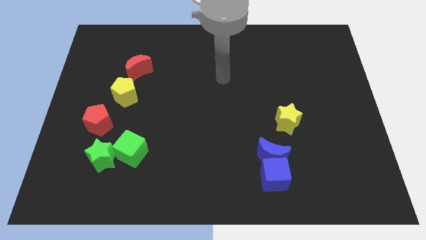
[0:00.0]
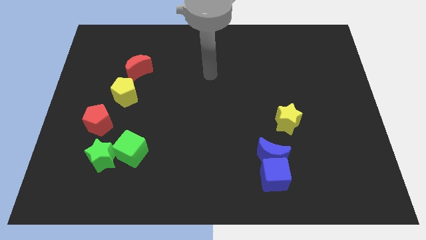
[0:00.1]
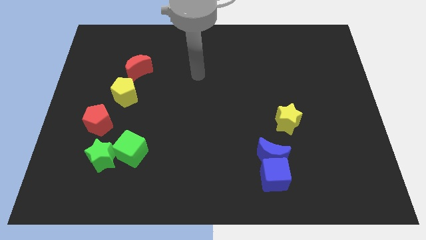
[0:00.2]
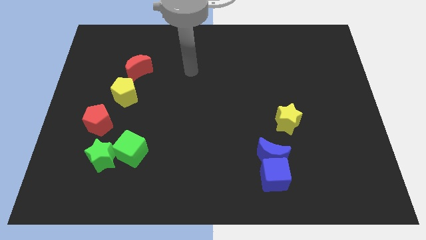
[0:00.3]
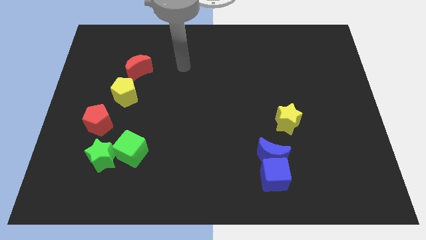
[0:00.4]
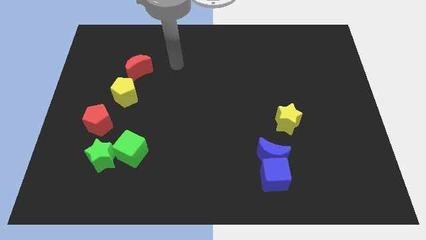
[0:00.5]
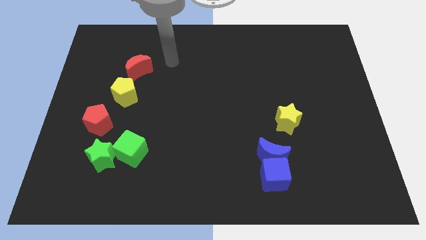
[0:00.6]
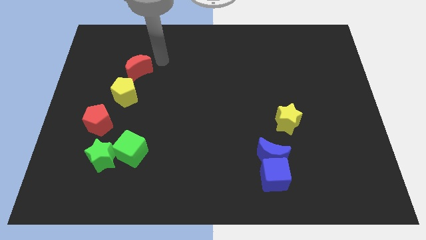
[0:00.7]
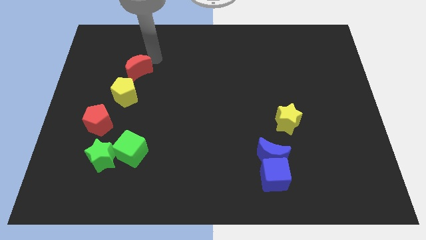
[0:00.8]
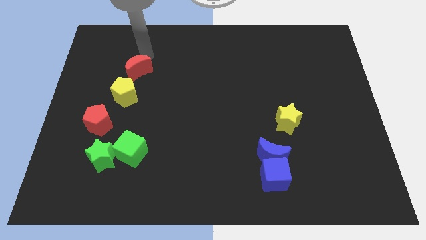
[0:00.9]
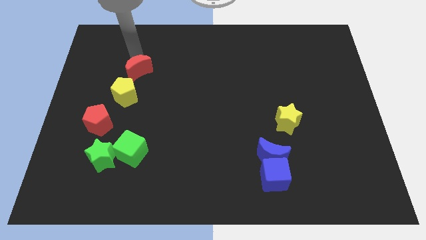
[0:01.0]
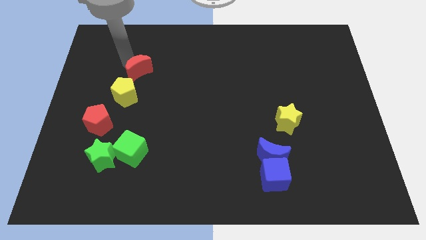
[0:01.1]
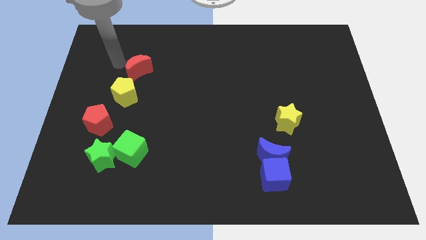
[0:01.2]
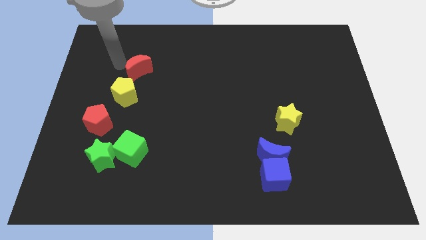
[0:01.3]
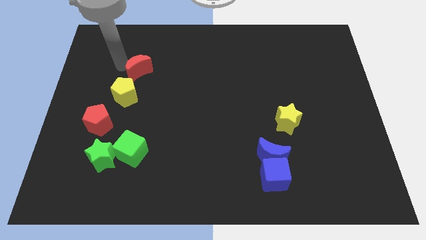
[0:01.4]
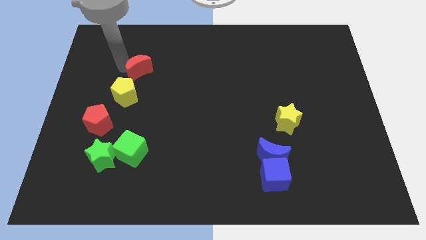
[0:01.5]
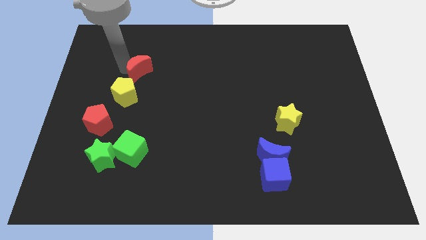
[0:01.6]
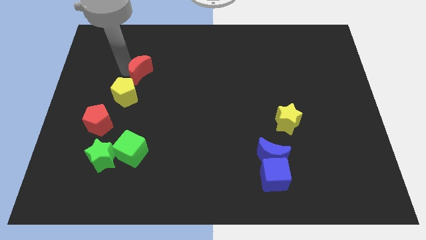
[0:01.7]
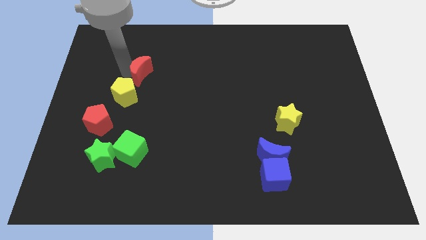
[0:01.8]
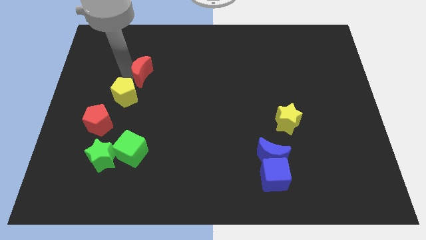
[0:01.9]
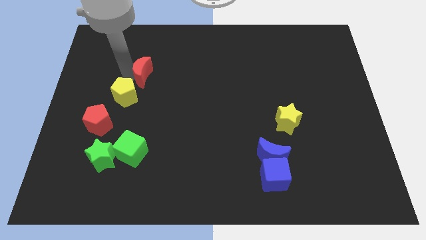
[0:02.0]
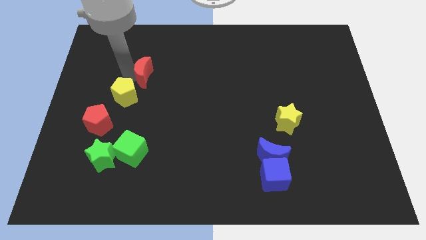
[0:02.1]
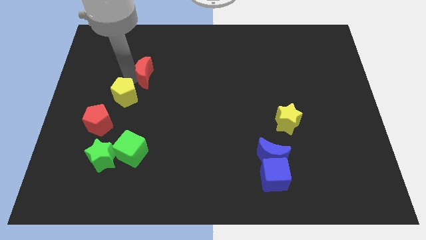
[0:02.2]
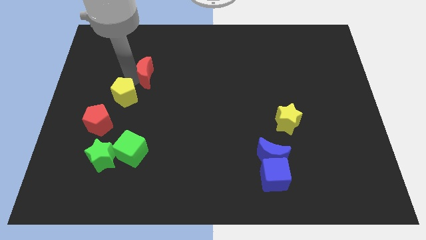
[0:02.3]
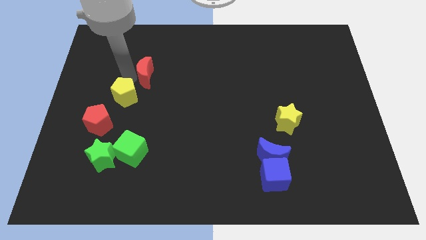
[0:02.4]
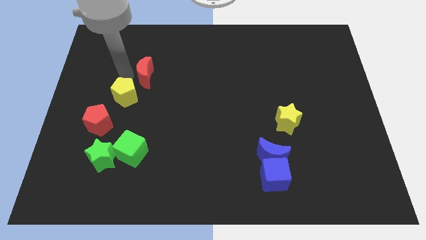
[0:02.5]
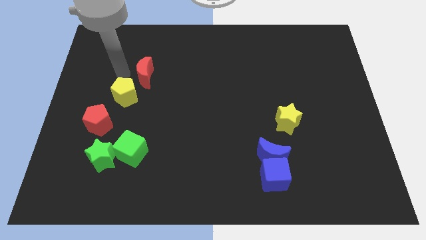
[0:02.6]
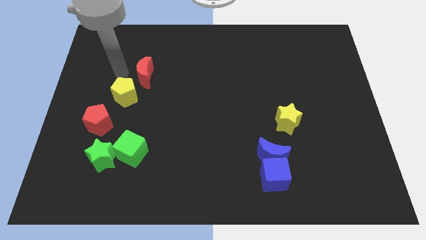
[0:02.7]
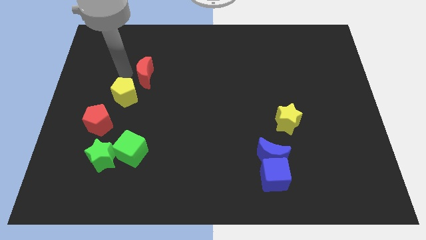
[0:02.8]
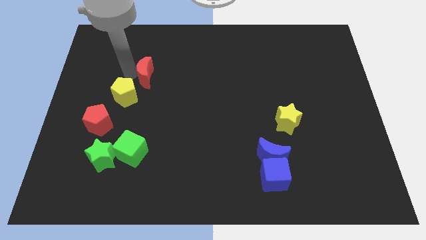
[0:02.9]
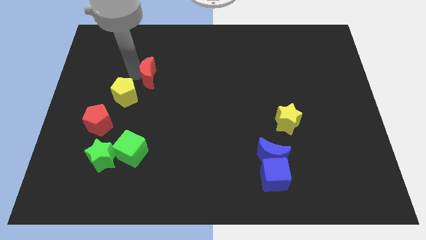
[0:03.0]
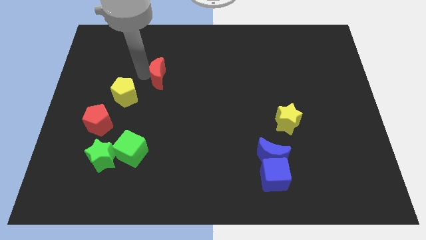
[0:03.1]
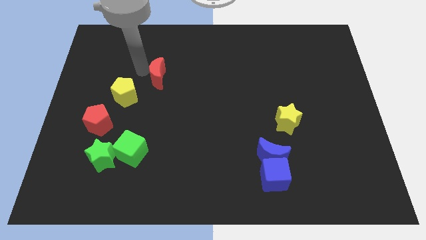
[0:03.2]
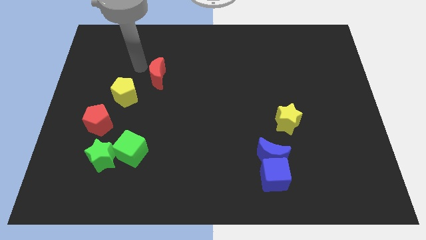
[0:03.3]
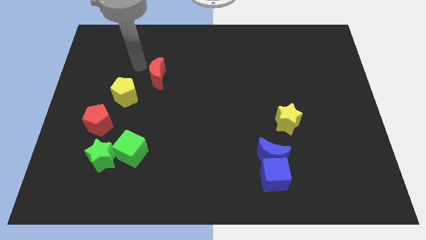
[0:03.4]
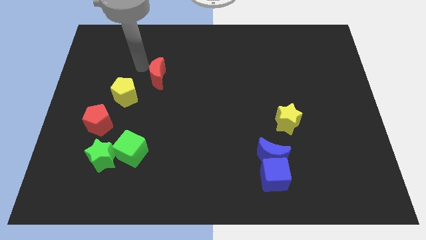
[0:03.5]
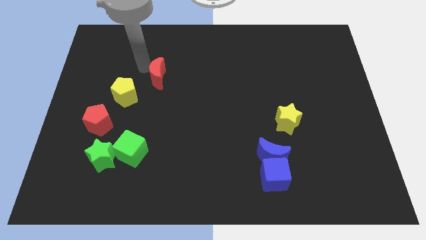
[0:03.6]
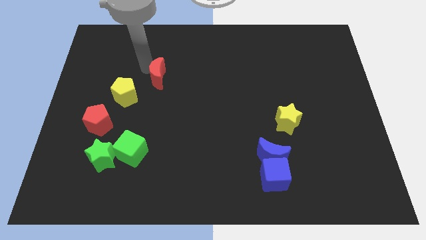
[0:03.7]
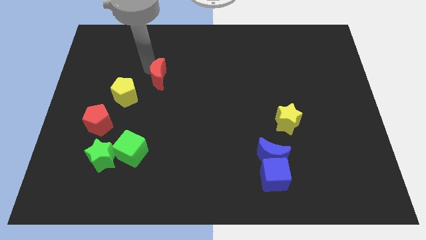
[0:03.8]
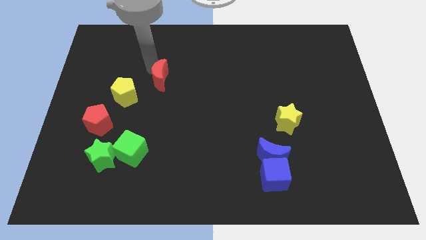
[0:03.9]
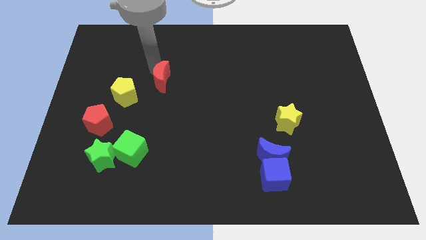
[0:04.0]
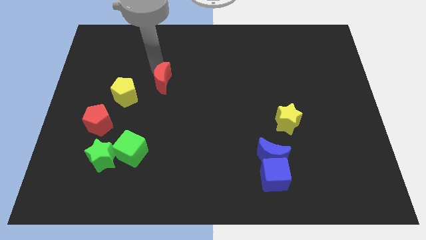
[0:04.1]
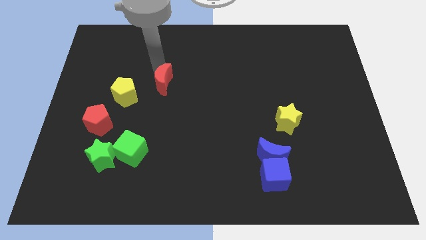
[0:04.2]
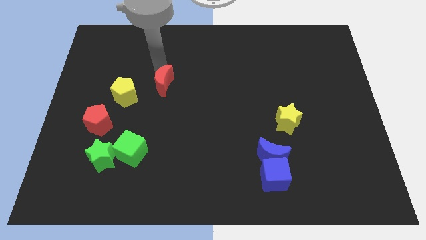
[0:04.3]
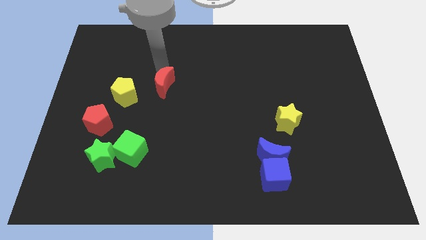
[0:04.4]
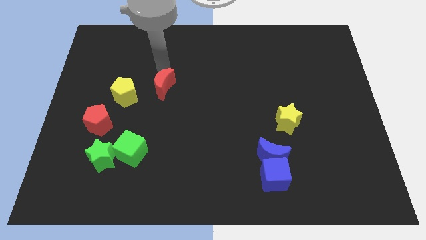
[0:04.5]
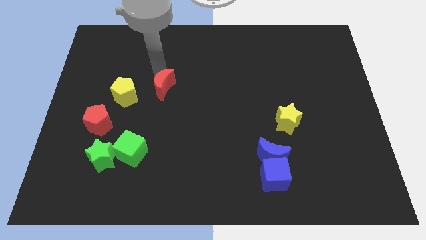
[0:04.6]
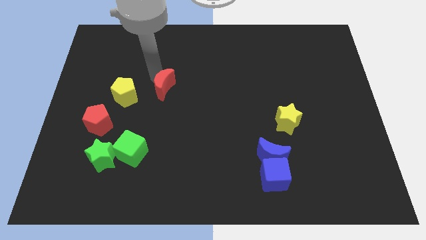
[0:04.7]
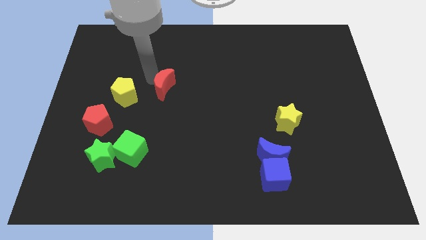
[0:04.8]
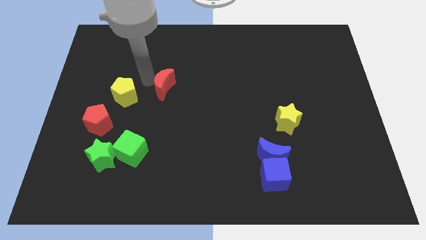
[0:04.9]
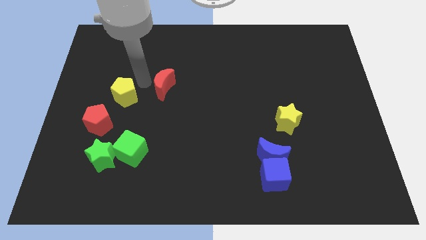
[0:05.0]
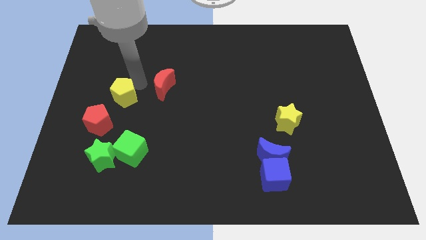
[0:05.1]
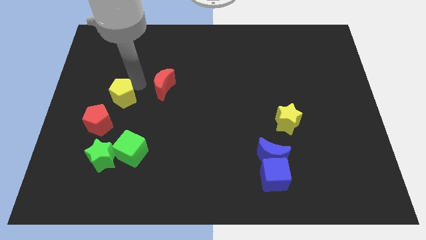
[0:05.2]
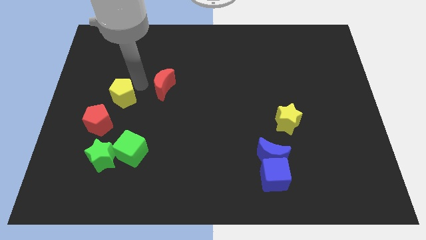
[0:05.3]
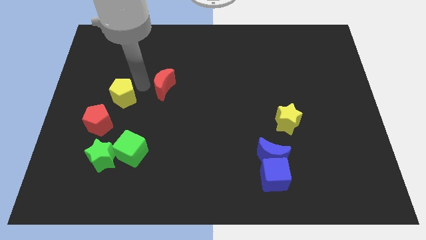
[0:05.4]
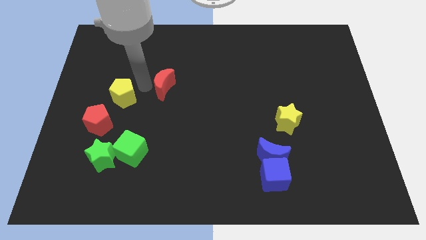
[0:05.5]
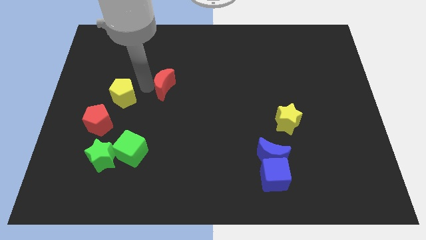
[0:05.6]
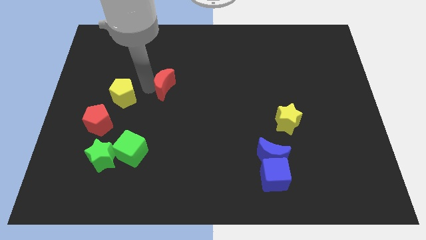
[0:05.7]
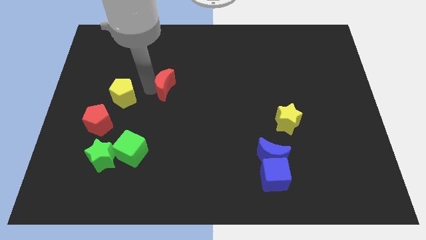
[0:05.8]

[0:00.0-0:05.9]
move the red moon to the middle

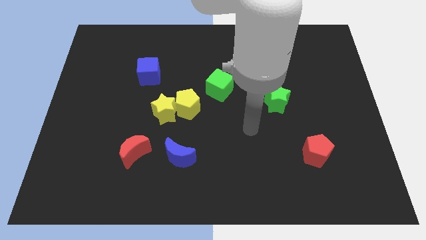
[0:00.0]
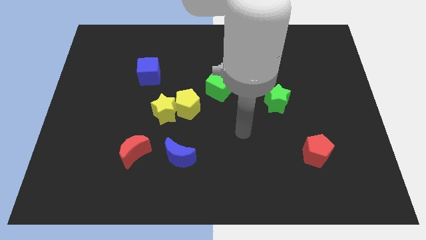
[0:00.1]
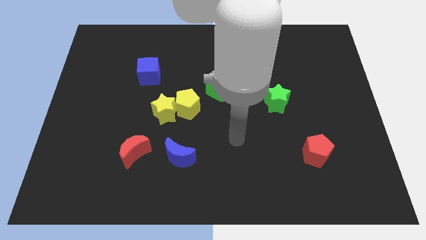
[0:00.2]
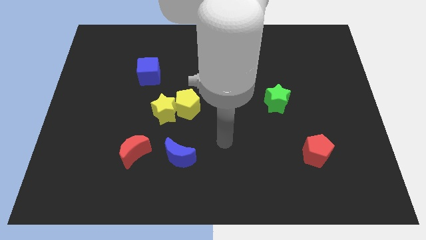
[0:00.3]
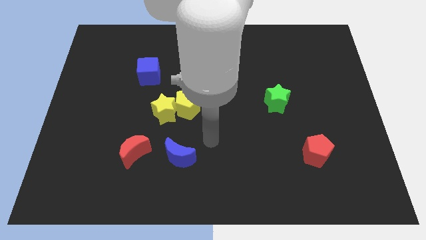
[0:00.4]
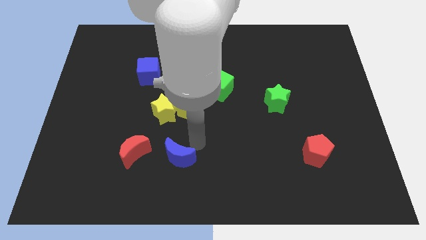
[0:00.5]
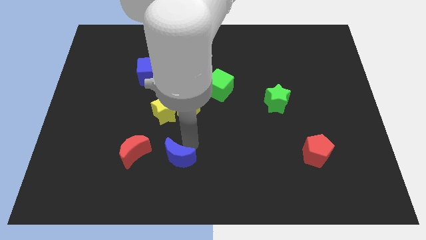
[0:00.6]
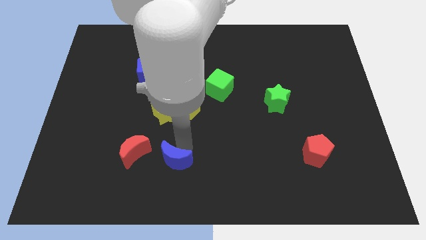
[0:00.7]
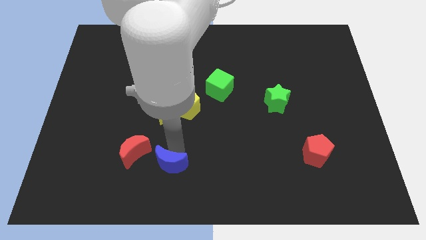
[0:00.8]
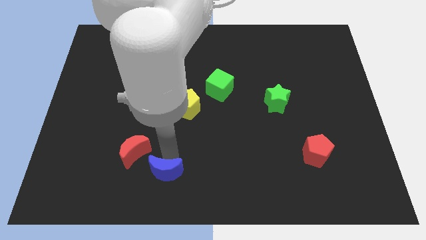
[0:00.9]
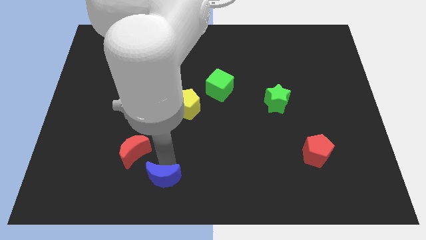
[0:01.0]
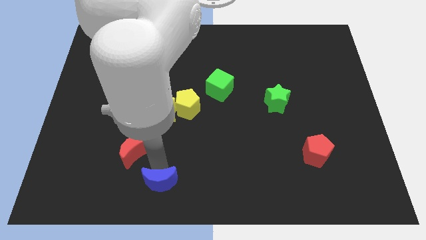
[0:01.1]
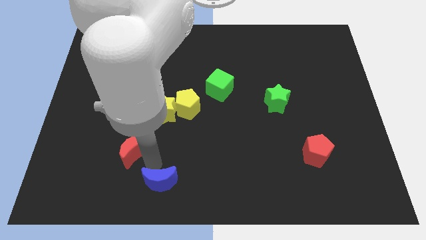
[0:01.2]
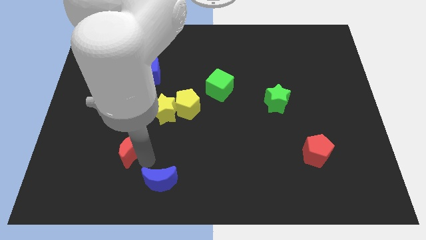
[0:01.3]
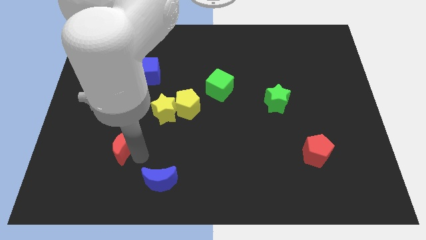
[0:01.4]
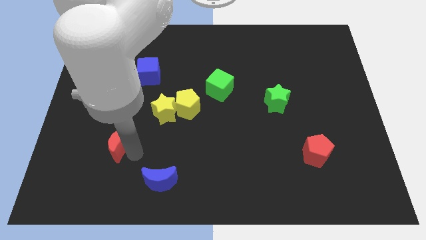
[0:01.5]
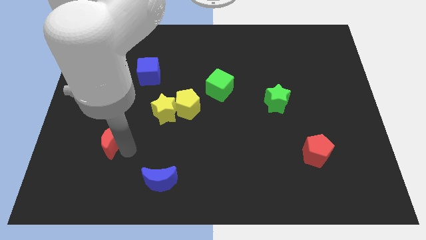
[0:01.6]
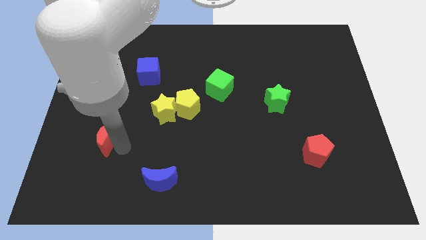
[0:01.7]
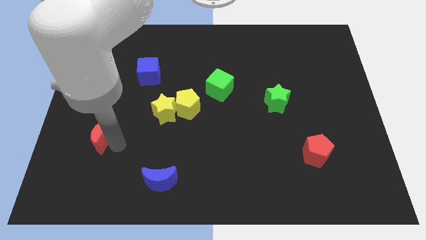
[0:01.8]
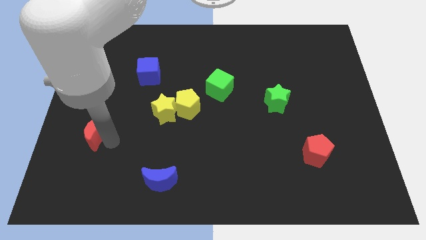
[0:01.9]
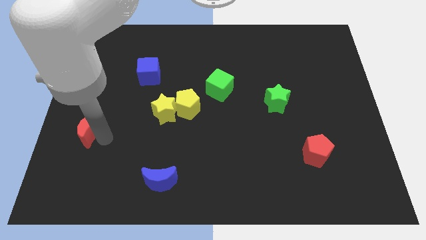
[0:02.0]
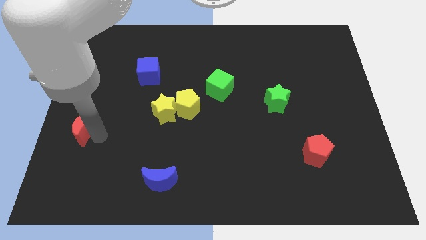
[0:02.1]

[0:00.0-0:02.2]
put the red moon to the left side of the board
